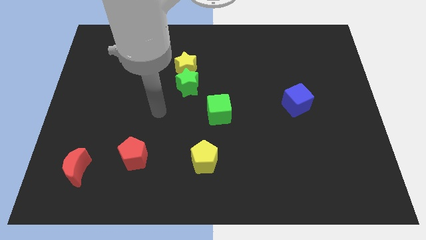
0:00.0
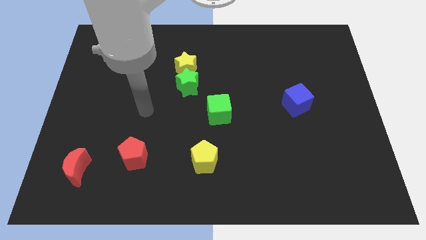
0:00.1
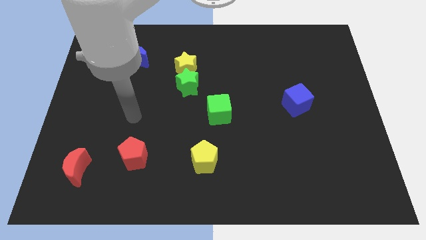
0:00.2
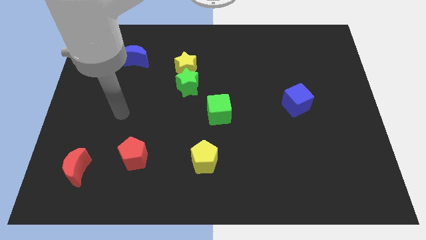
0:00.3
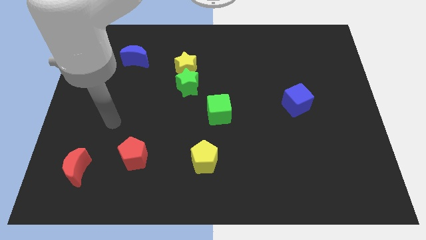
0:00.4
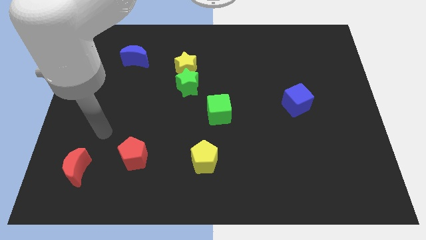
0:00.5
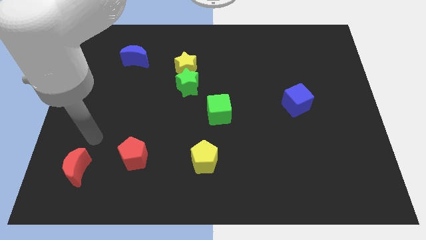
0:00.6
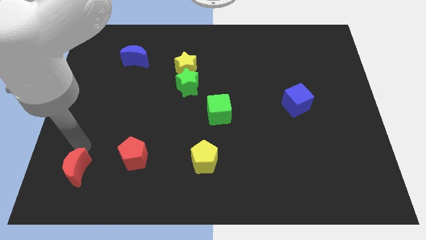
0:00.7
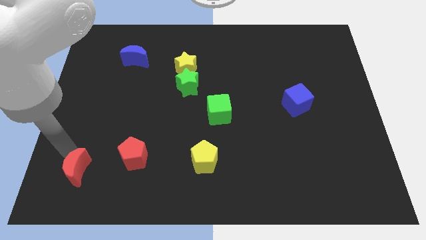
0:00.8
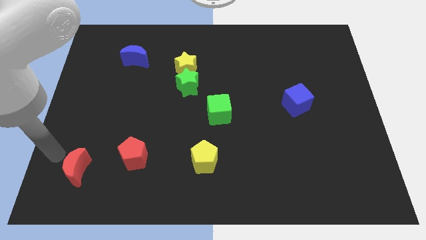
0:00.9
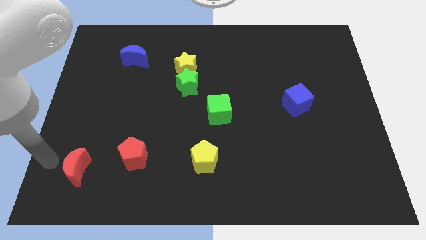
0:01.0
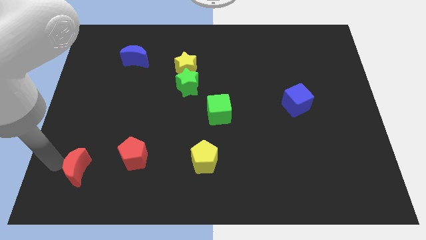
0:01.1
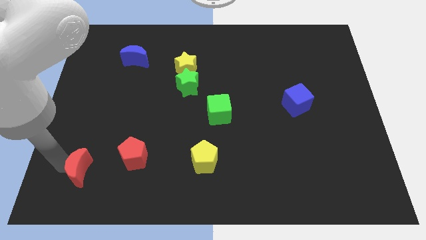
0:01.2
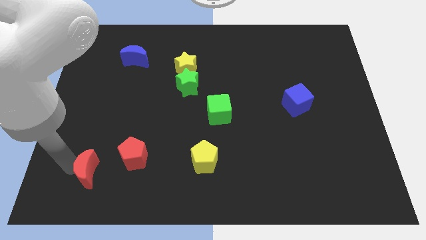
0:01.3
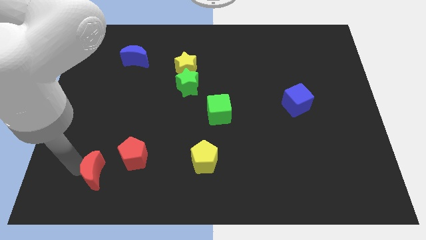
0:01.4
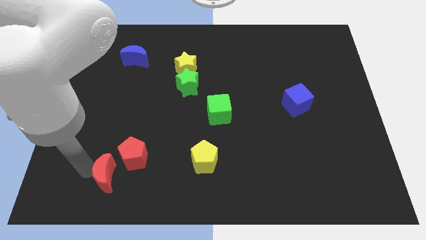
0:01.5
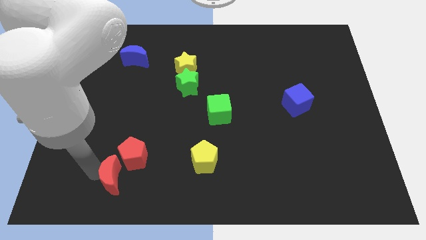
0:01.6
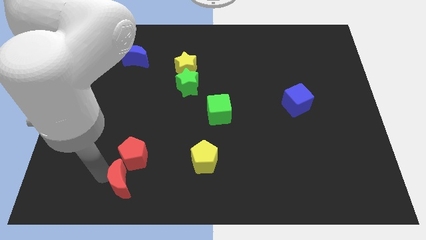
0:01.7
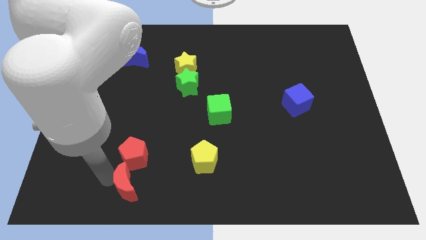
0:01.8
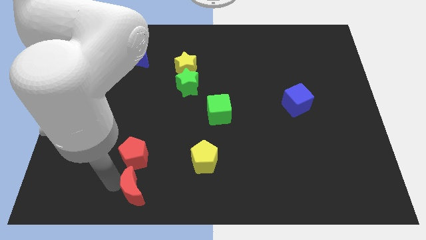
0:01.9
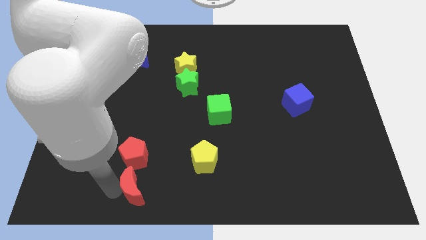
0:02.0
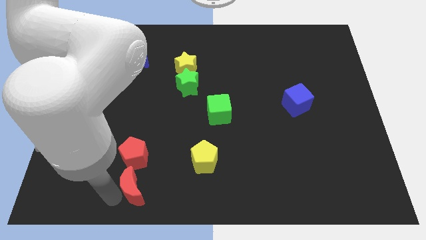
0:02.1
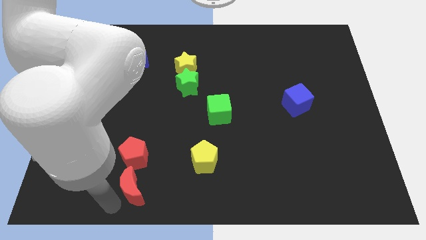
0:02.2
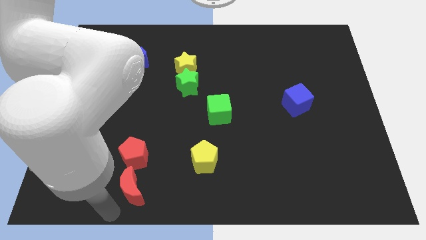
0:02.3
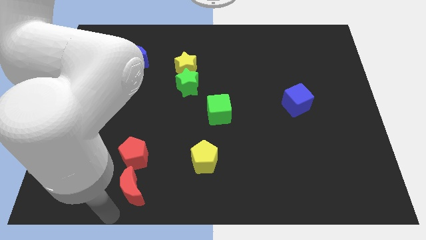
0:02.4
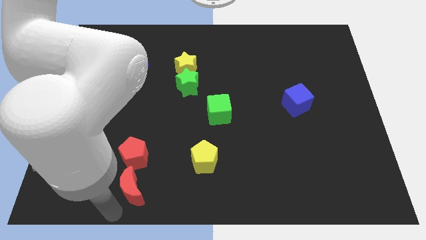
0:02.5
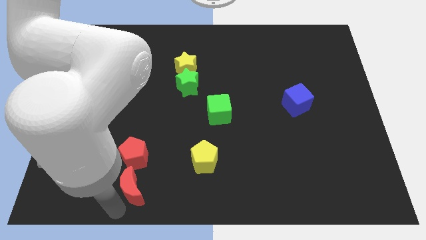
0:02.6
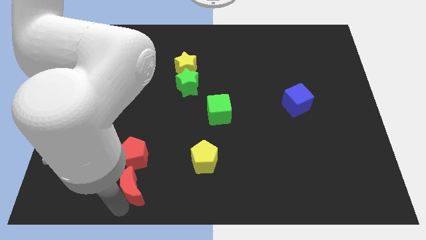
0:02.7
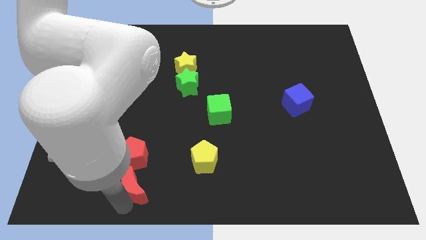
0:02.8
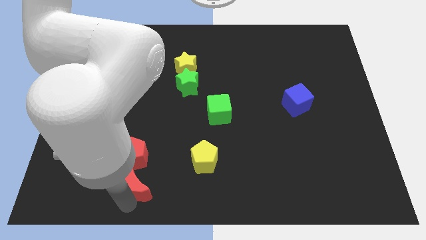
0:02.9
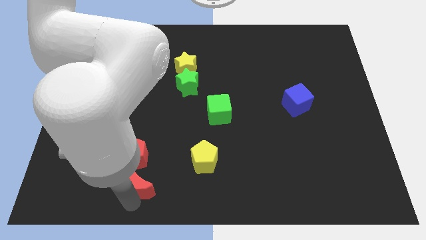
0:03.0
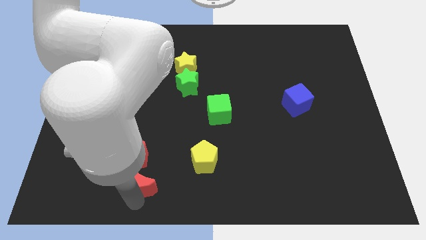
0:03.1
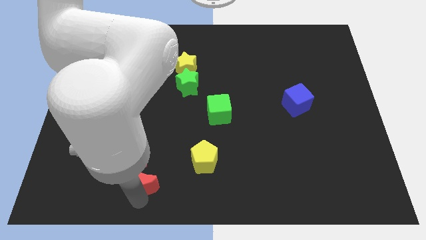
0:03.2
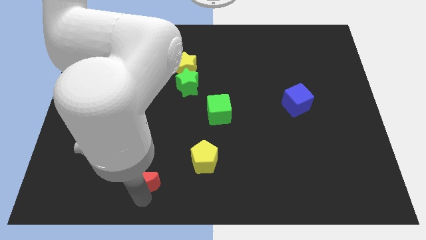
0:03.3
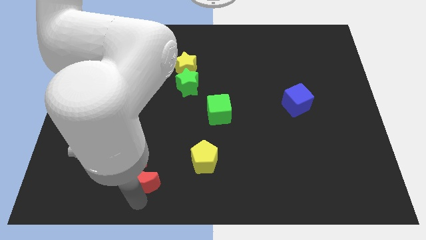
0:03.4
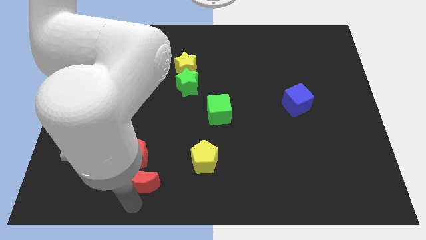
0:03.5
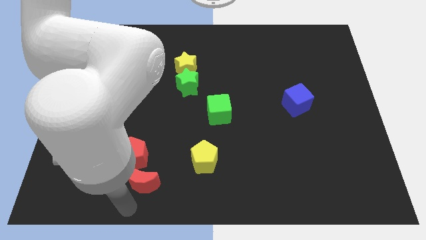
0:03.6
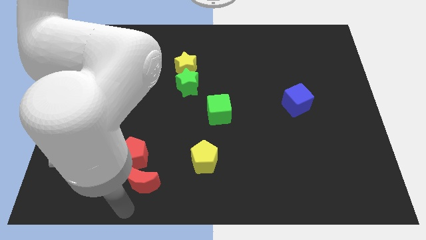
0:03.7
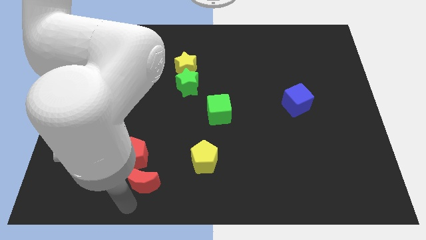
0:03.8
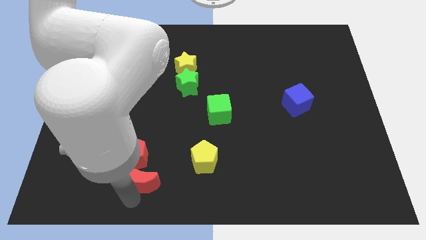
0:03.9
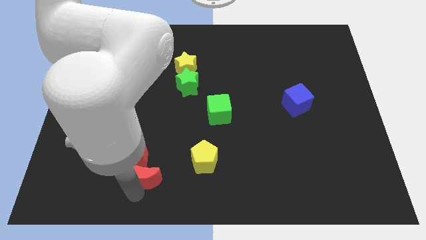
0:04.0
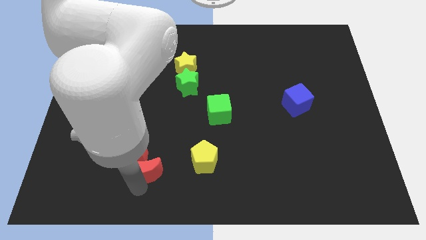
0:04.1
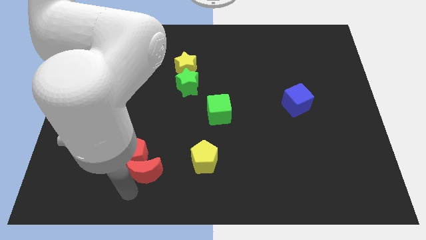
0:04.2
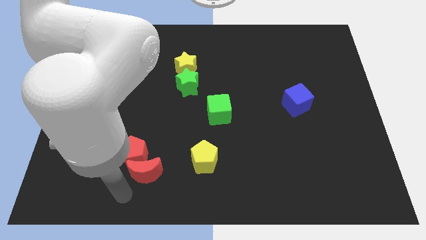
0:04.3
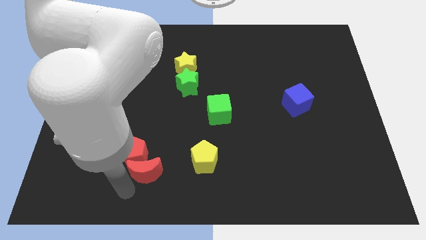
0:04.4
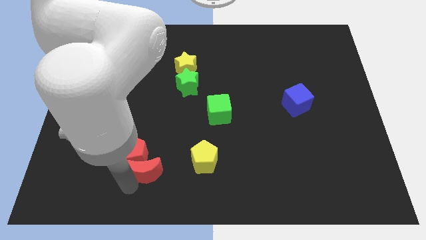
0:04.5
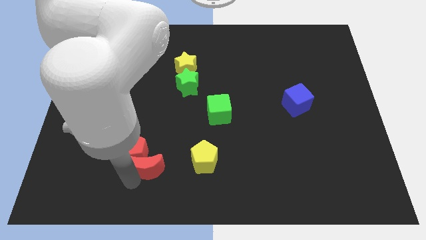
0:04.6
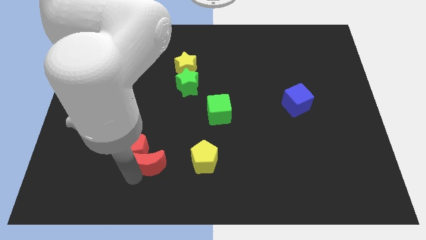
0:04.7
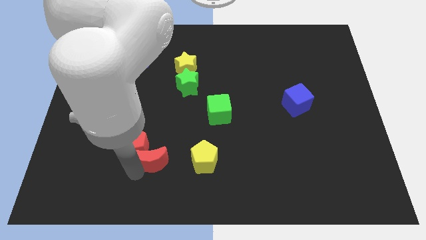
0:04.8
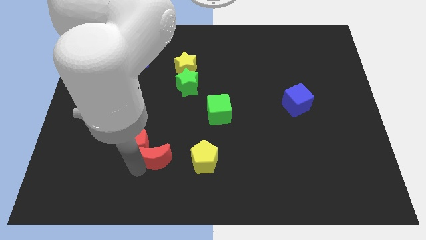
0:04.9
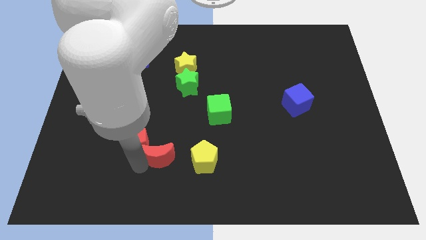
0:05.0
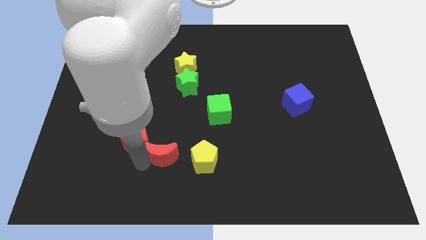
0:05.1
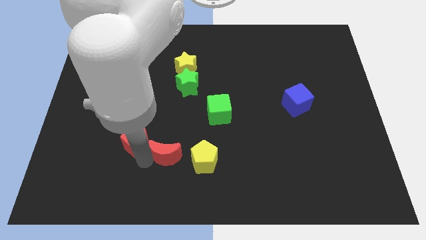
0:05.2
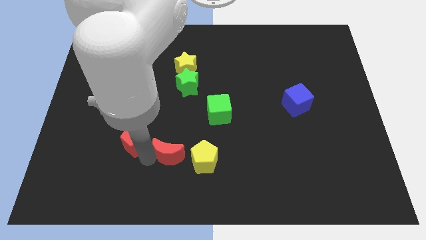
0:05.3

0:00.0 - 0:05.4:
move the red moon diagonally up and to the left of the yellow pentagon

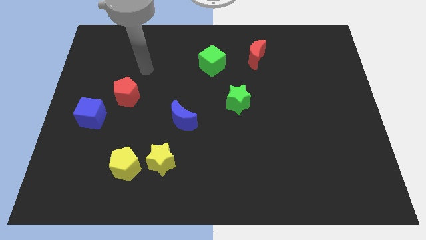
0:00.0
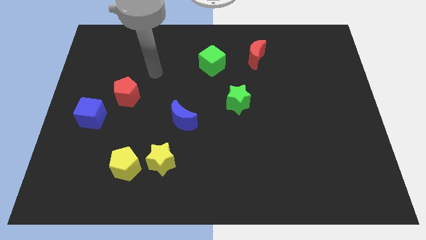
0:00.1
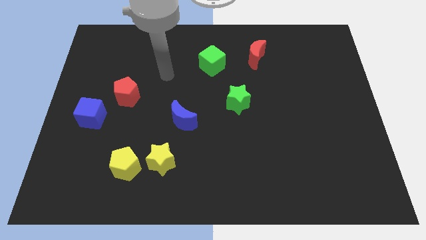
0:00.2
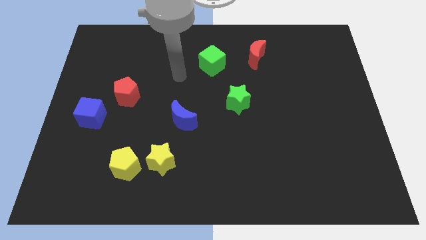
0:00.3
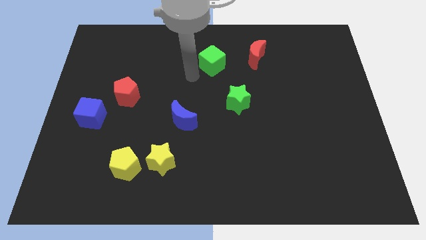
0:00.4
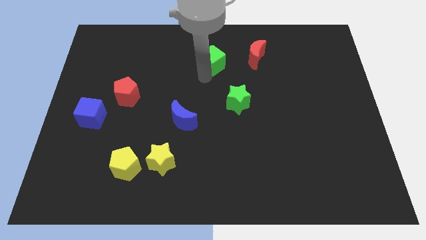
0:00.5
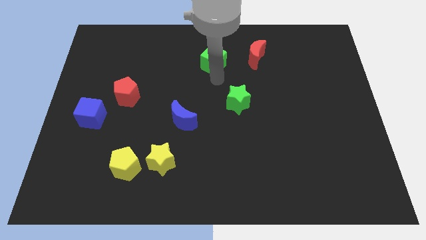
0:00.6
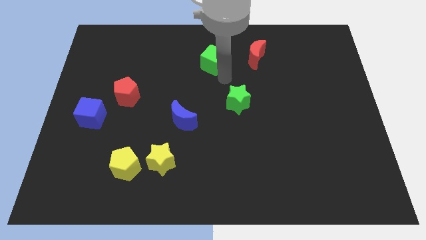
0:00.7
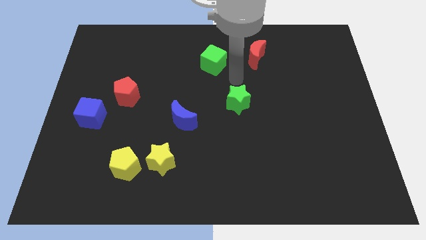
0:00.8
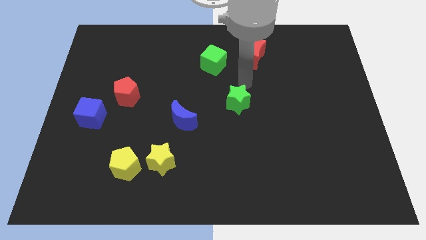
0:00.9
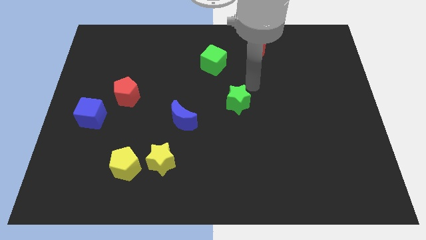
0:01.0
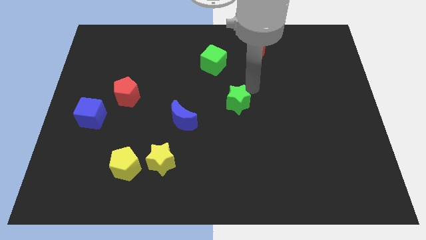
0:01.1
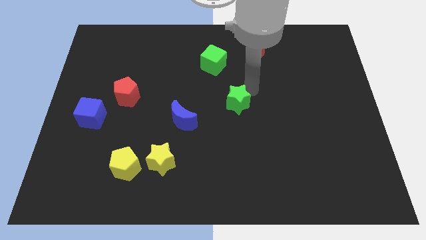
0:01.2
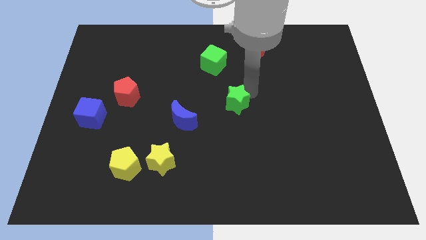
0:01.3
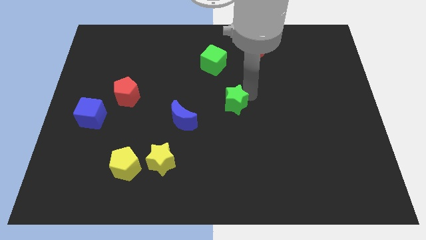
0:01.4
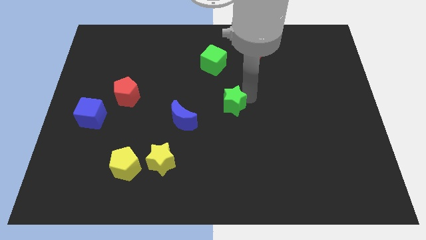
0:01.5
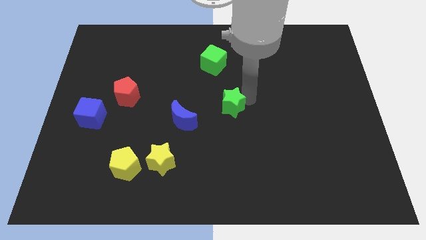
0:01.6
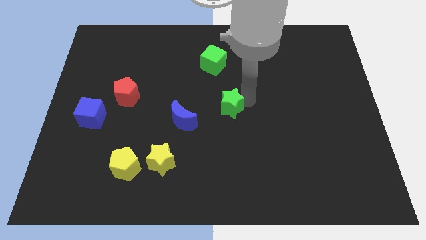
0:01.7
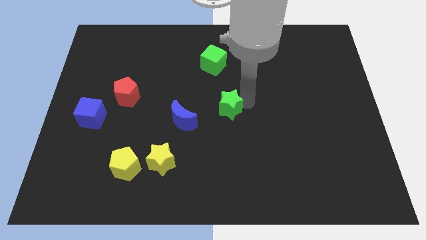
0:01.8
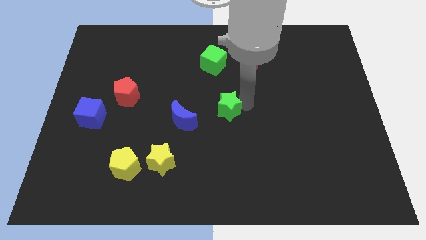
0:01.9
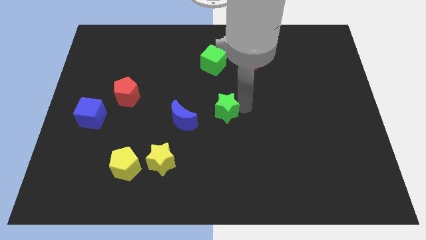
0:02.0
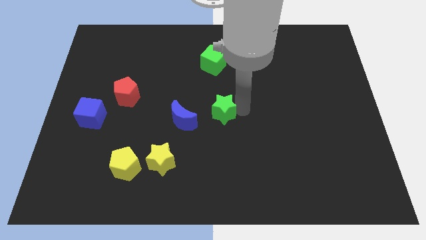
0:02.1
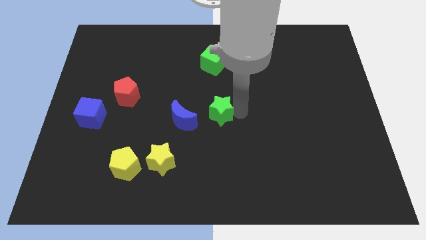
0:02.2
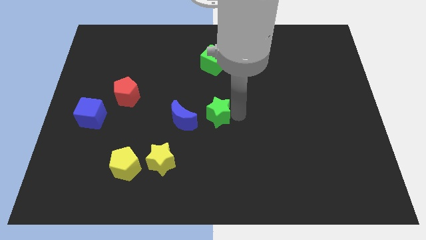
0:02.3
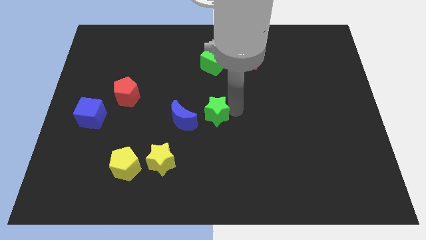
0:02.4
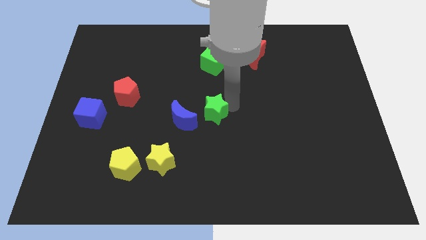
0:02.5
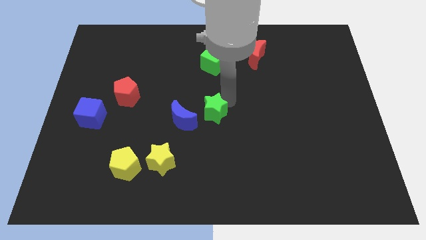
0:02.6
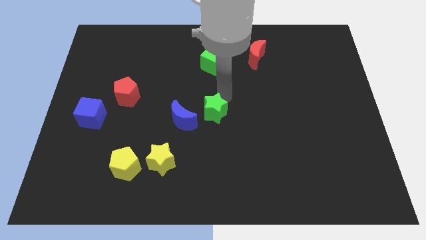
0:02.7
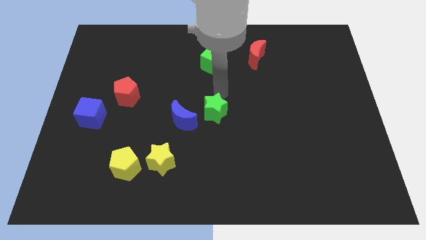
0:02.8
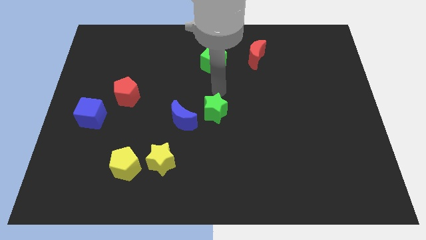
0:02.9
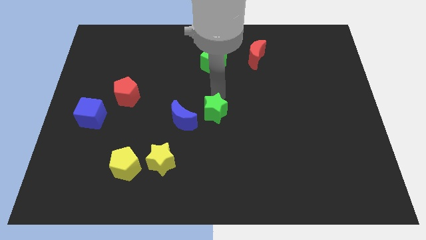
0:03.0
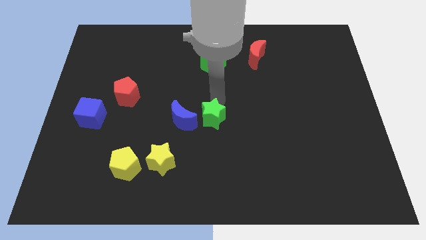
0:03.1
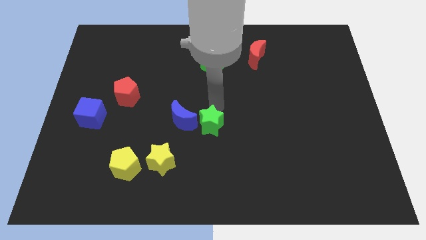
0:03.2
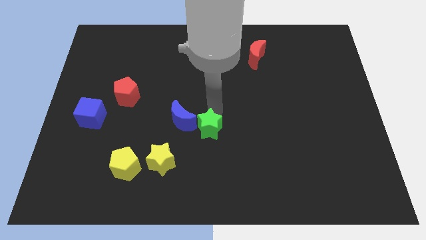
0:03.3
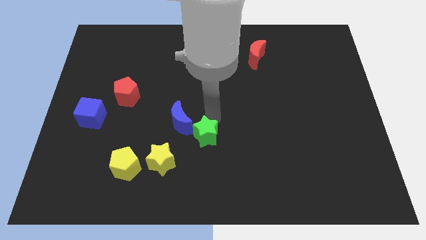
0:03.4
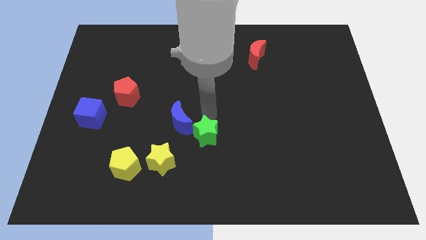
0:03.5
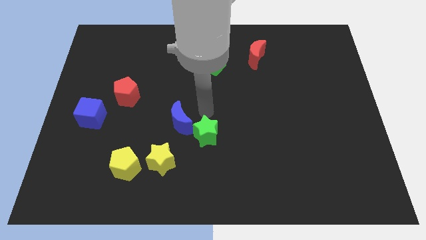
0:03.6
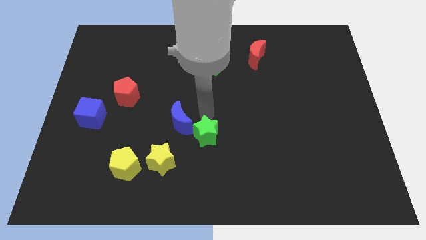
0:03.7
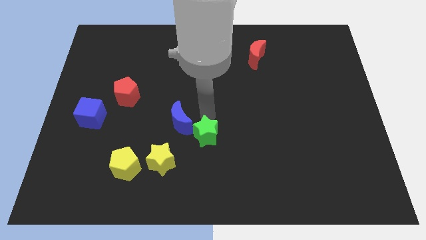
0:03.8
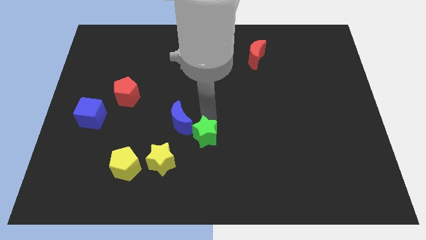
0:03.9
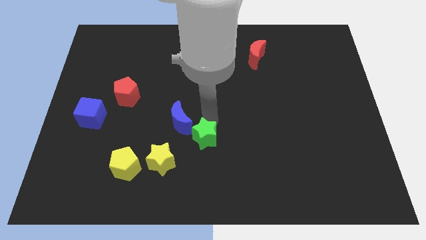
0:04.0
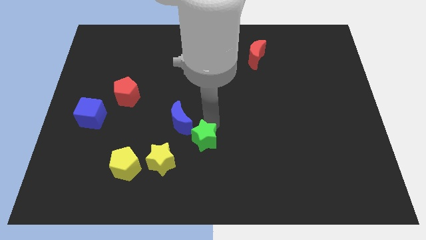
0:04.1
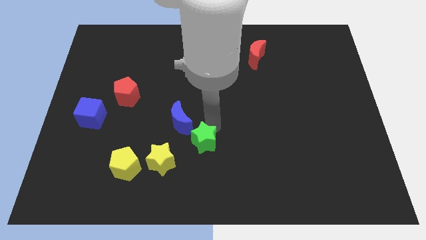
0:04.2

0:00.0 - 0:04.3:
slide the green star right of the yellow star
